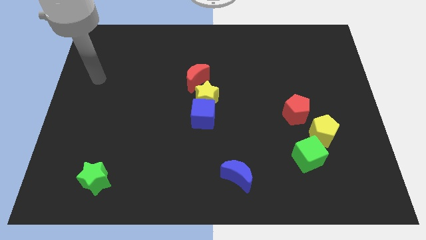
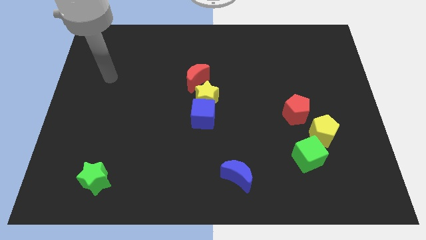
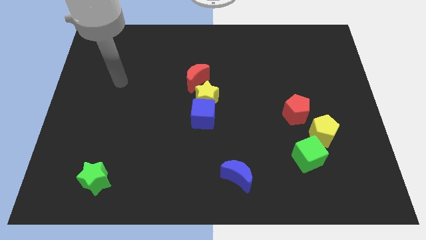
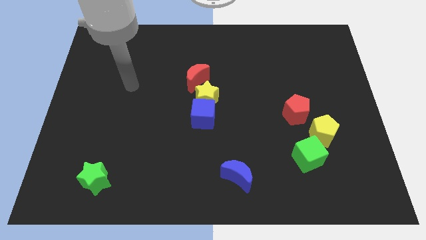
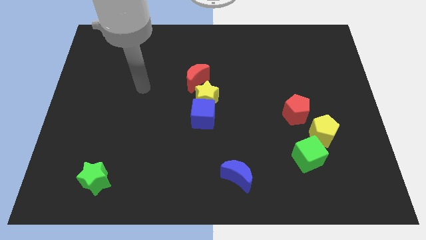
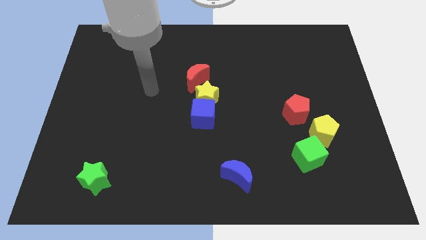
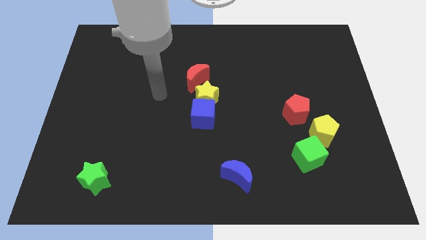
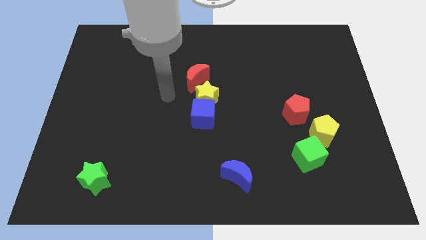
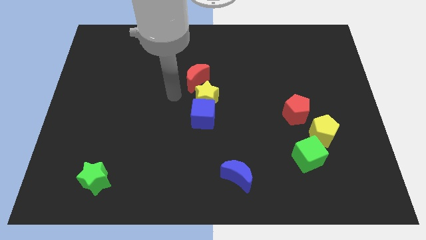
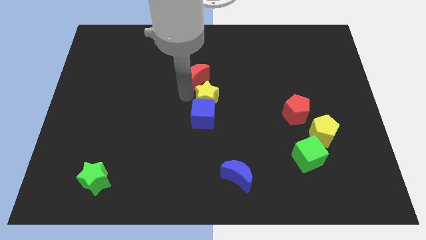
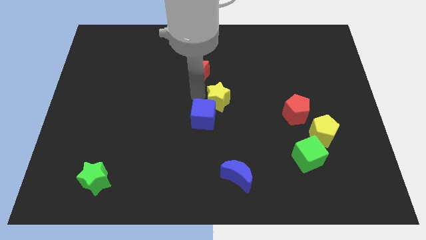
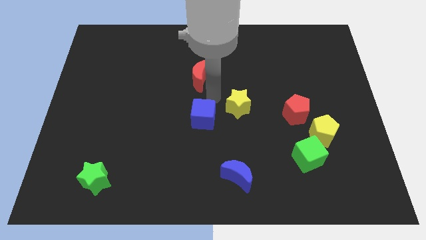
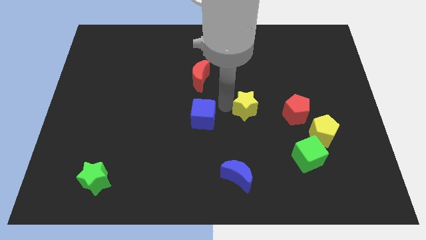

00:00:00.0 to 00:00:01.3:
separate the blue cube from the yellow star

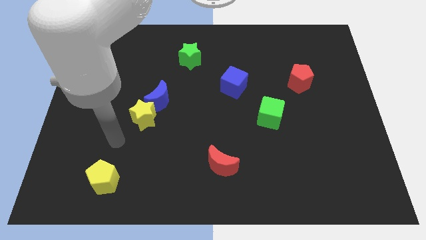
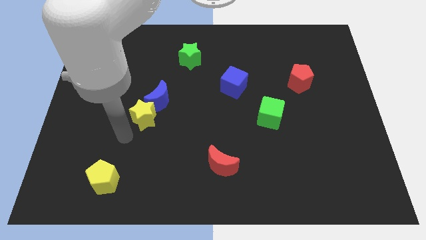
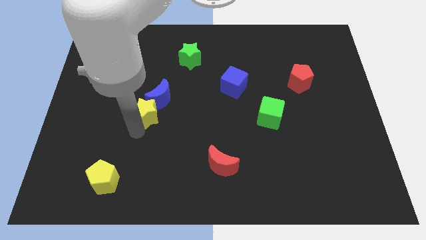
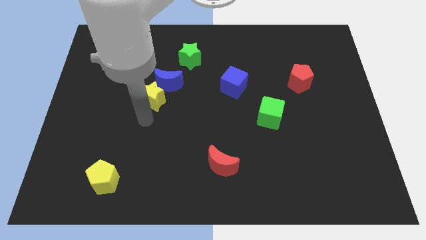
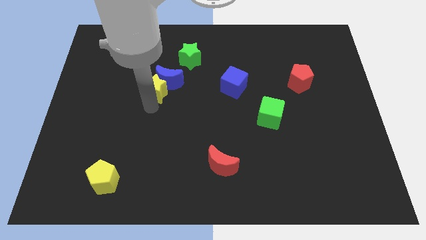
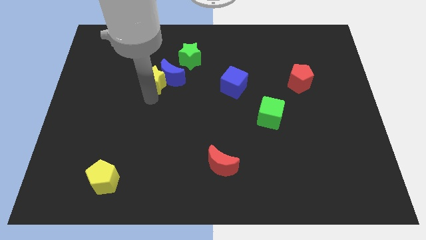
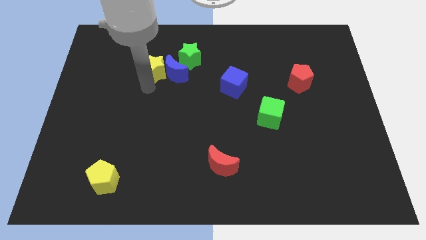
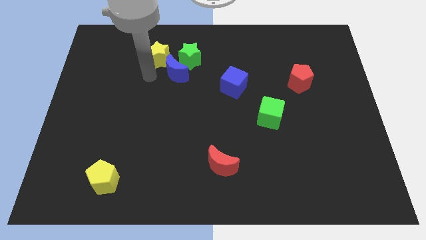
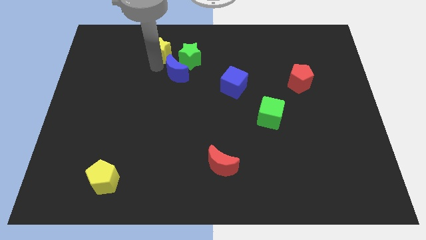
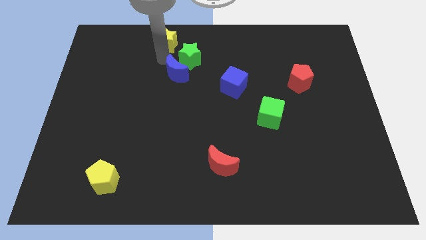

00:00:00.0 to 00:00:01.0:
separate the blue moon from the yellow star

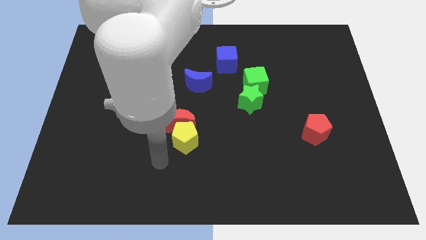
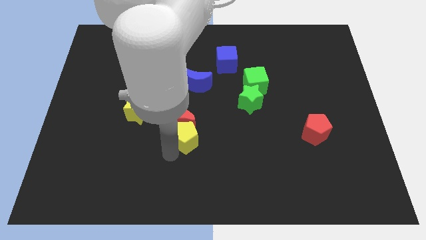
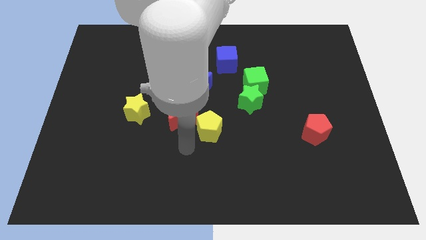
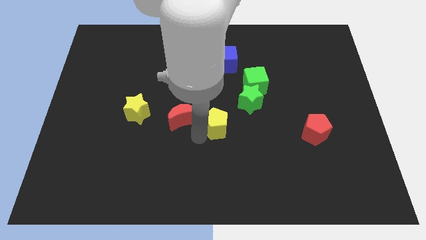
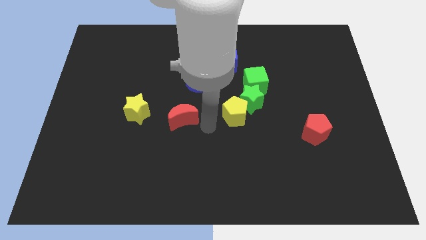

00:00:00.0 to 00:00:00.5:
separate the red moon from the yellow pentagon

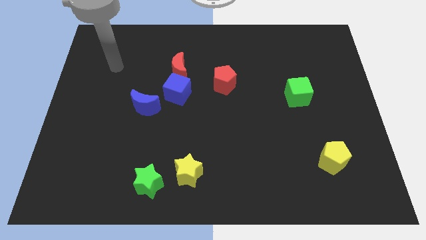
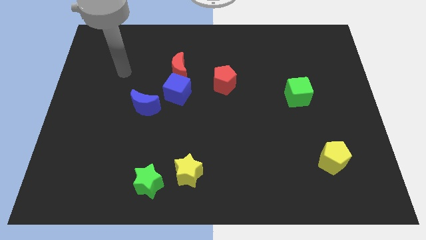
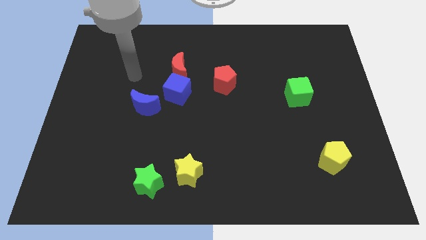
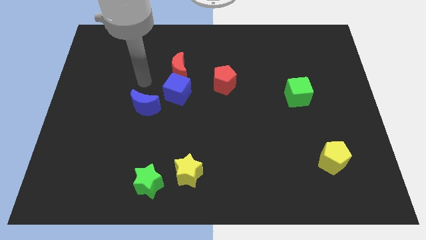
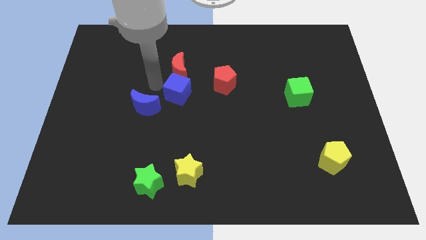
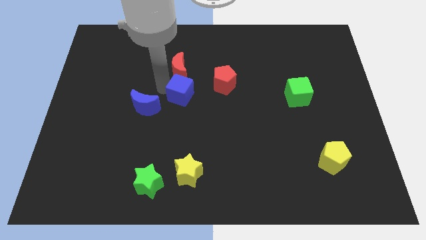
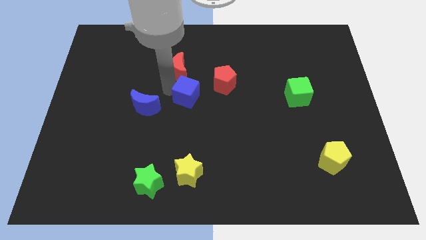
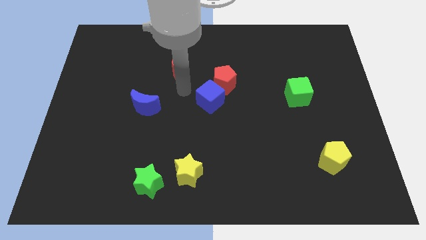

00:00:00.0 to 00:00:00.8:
move the red moon away from the blue cube

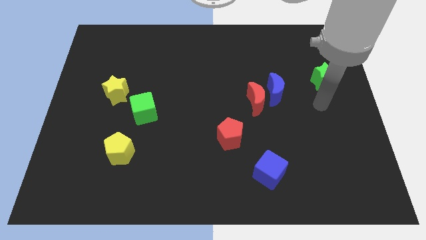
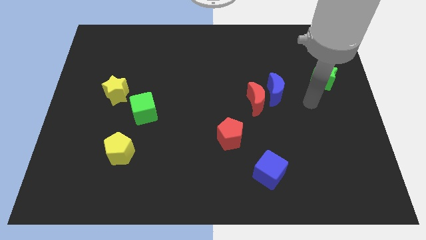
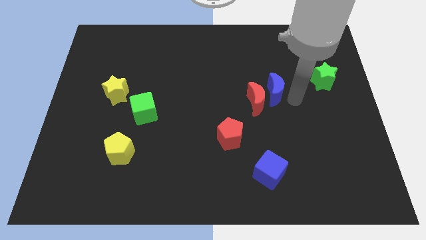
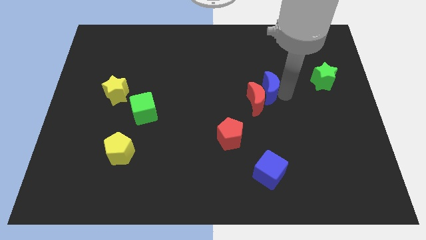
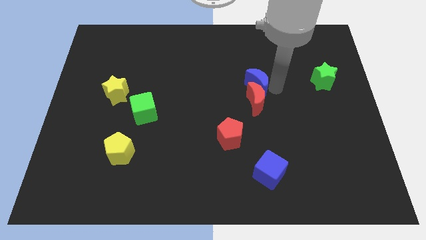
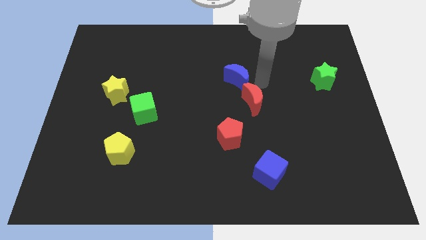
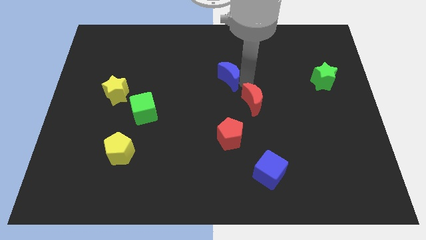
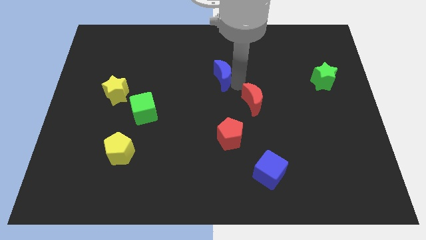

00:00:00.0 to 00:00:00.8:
move the red moon away from the blue moon

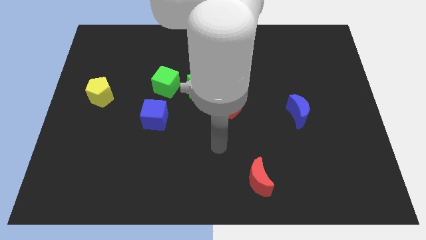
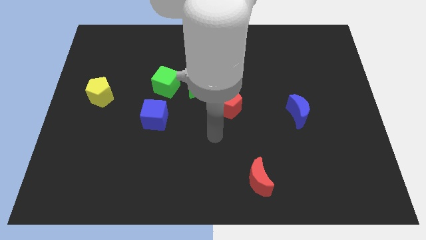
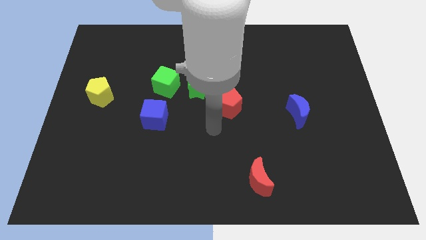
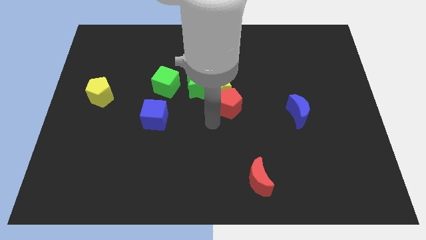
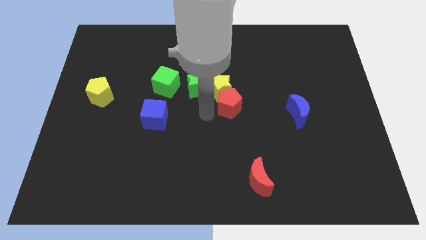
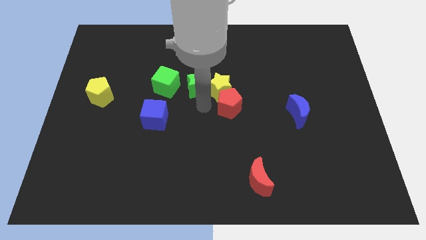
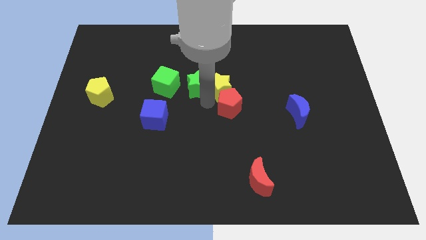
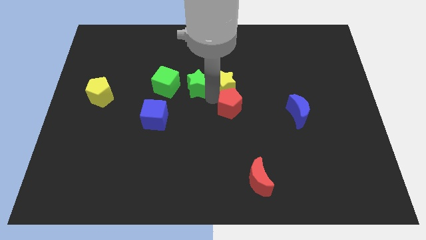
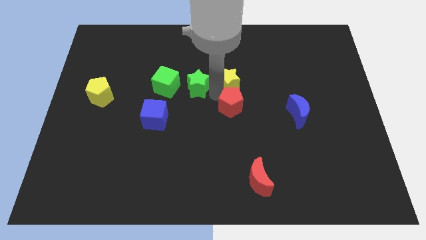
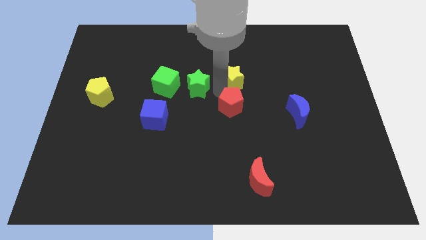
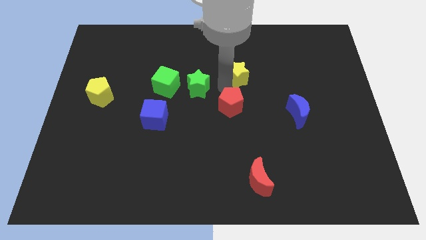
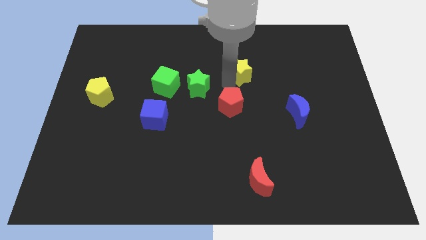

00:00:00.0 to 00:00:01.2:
move the yellow star away from the red pentagon and green star

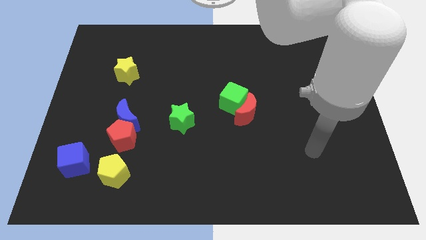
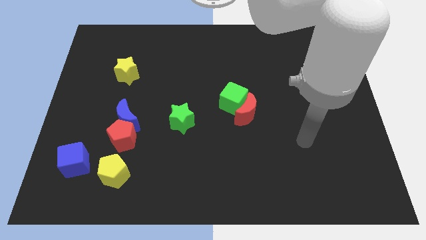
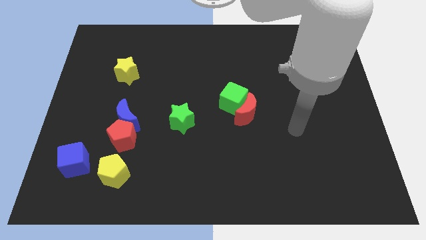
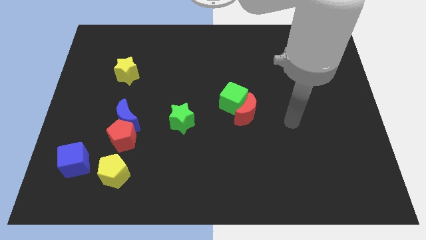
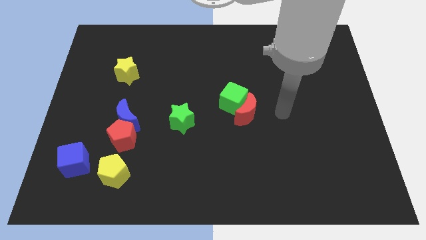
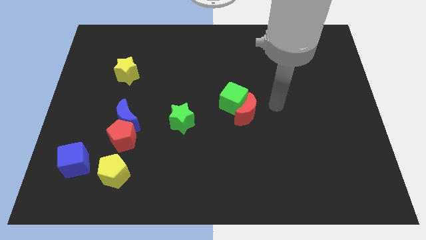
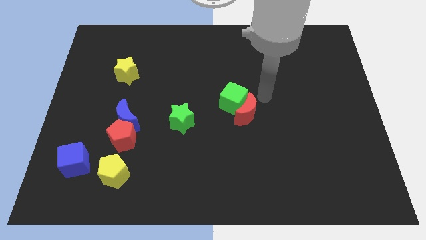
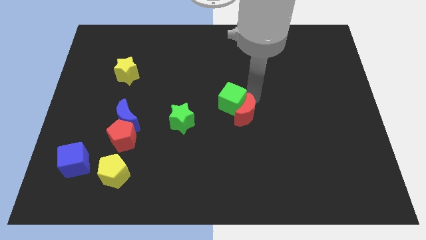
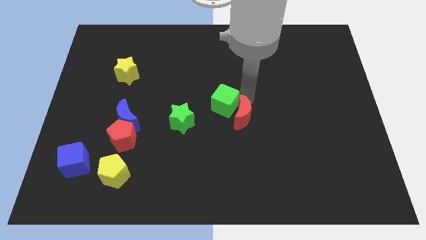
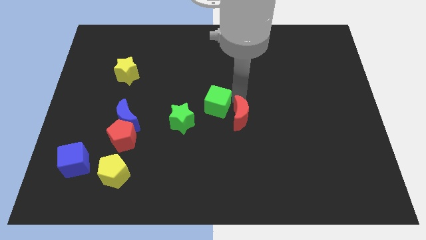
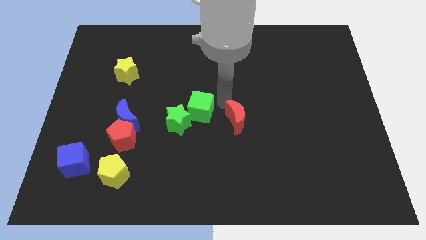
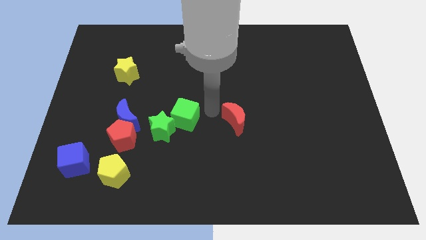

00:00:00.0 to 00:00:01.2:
separate the red moon from the green cube

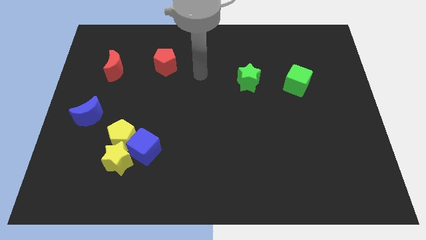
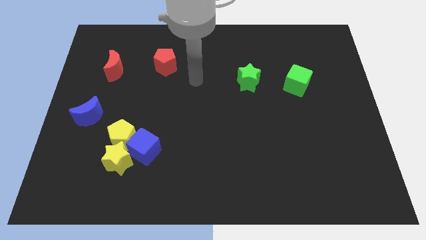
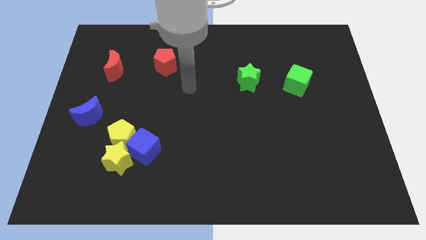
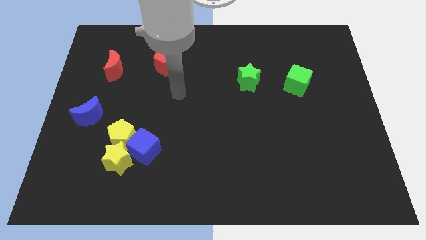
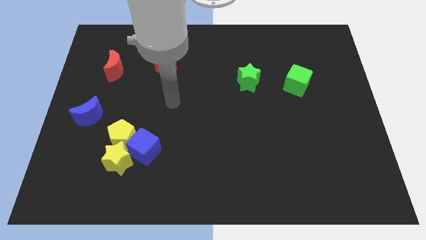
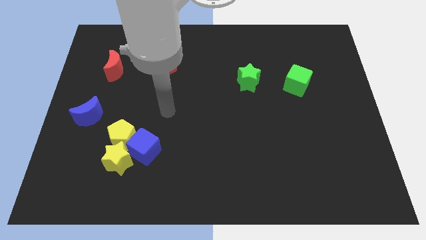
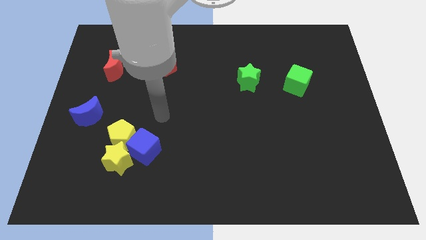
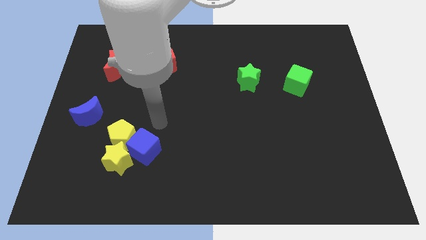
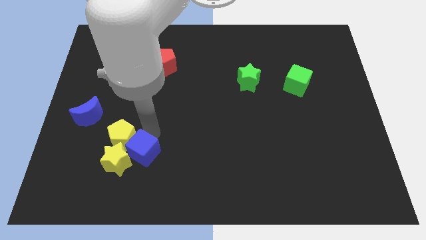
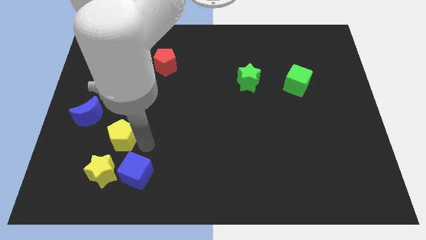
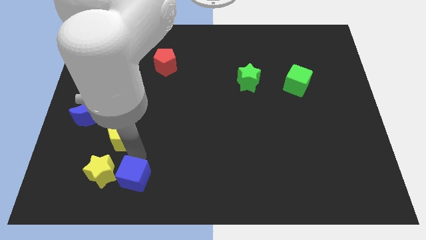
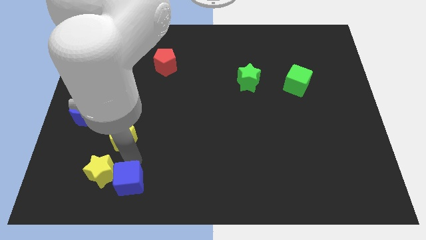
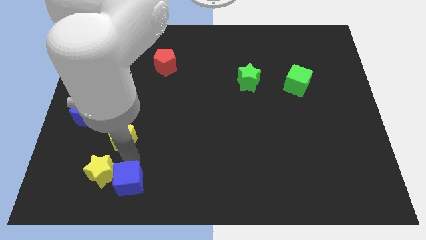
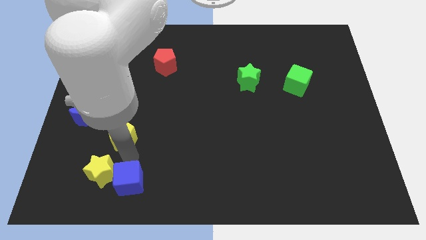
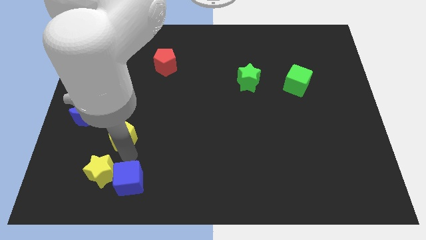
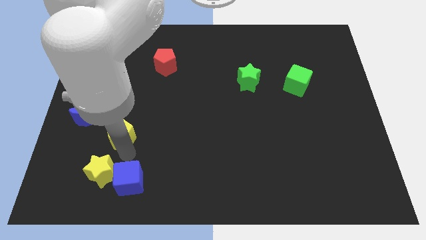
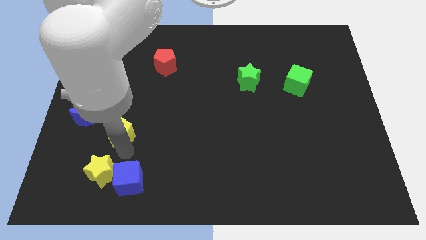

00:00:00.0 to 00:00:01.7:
move the yellow pentagon away from the yellow star and blue cube

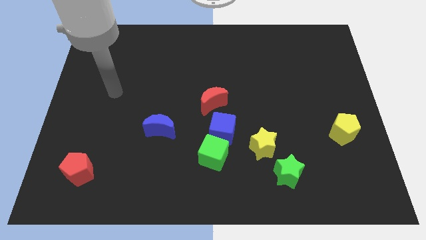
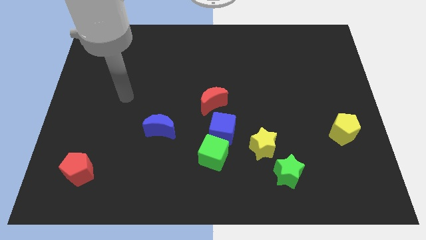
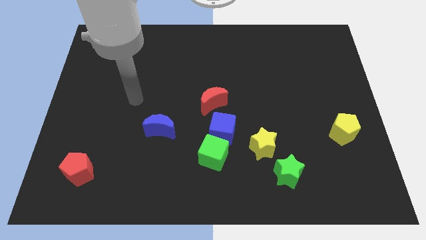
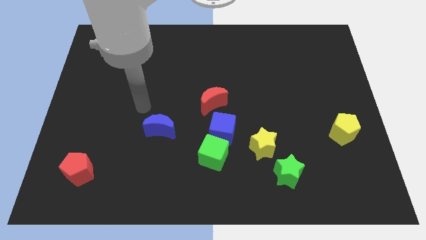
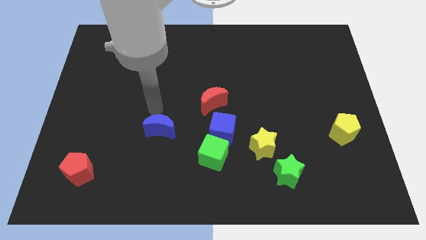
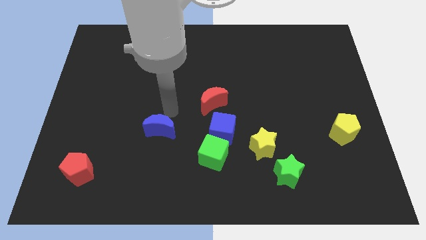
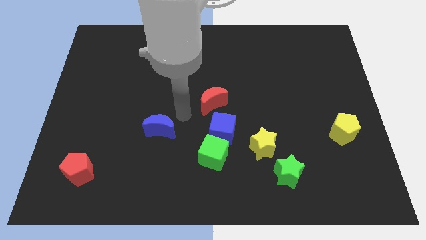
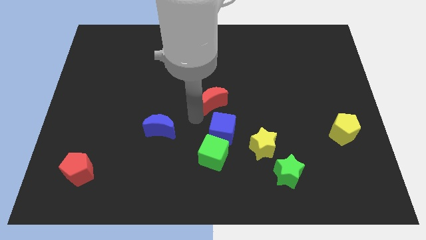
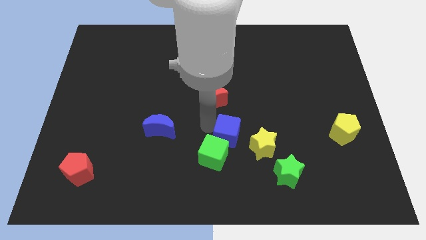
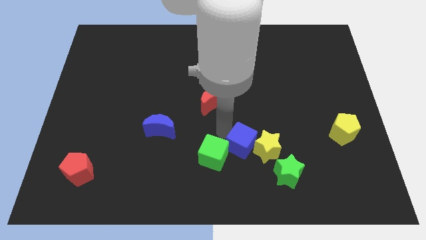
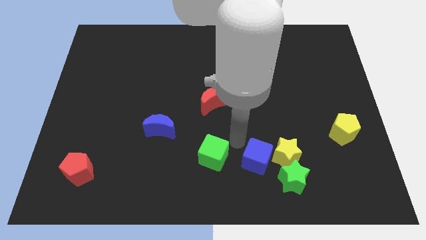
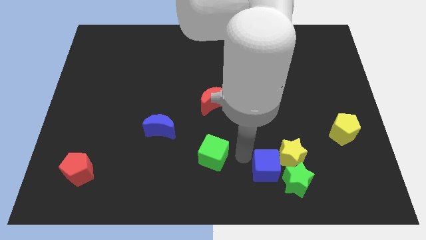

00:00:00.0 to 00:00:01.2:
move the green cube away from the blue cube
